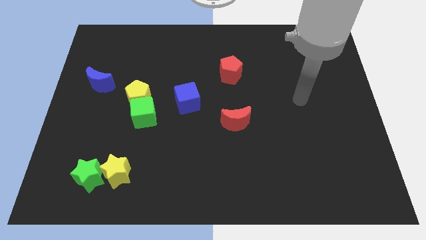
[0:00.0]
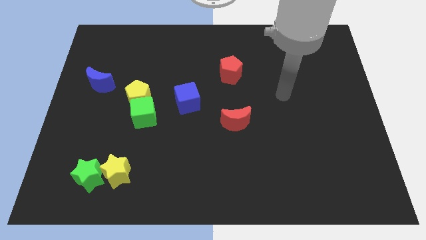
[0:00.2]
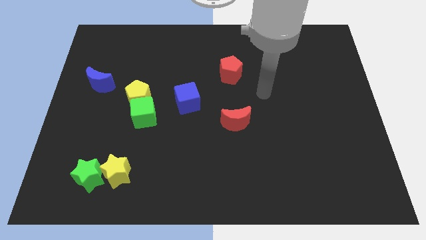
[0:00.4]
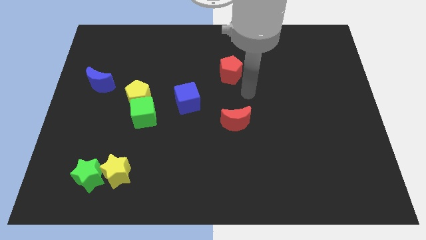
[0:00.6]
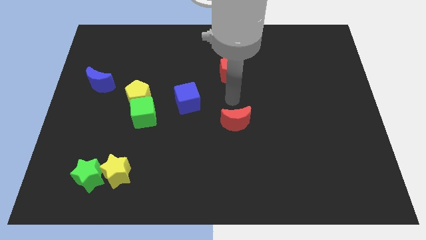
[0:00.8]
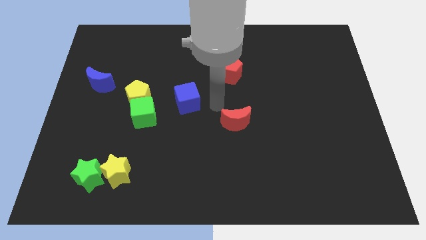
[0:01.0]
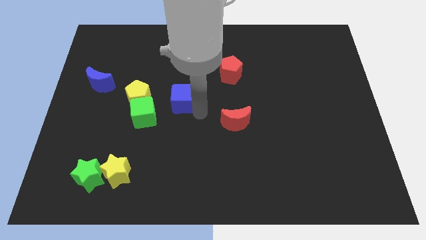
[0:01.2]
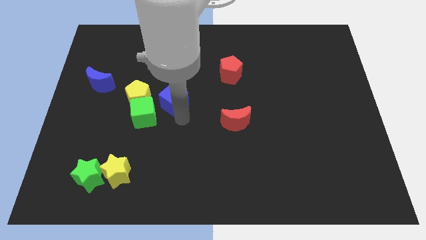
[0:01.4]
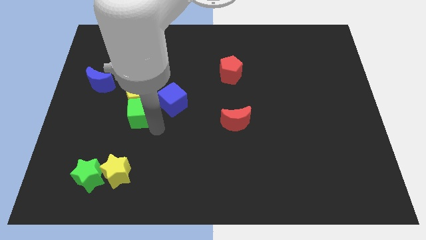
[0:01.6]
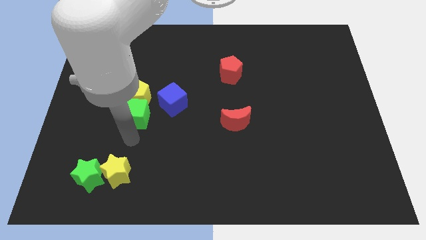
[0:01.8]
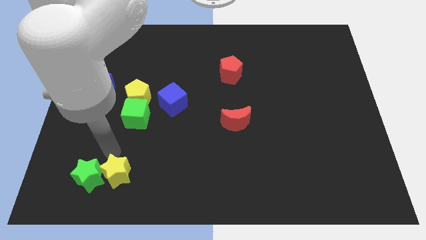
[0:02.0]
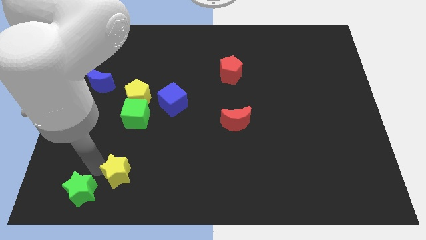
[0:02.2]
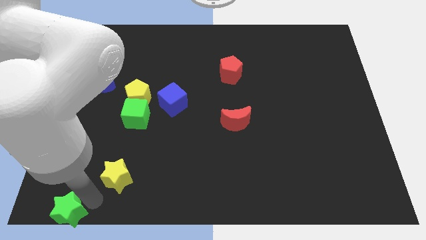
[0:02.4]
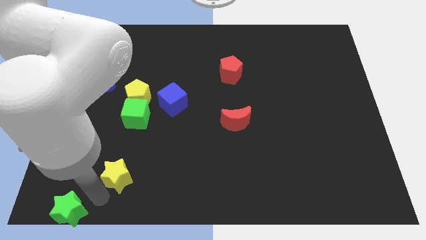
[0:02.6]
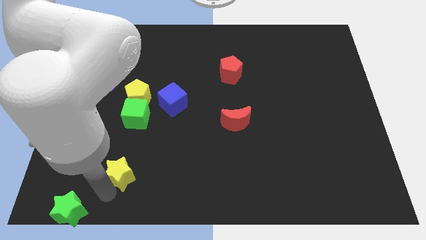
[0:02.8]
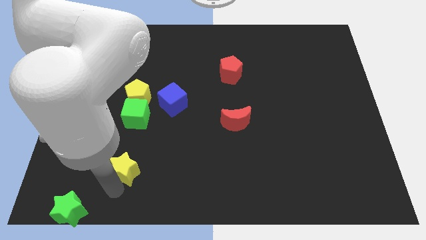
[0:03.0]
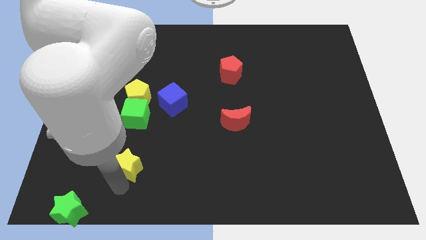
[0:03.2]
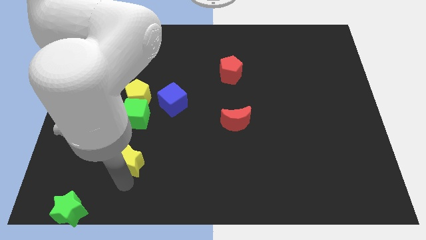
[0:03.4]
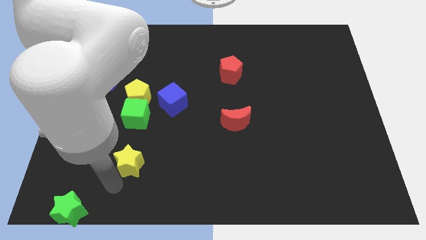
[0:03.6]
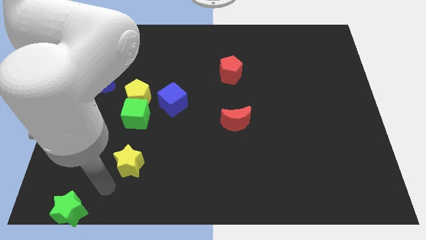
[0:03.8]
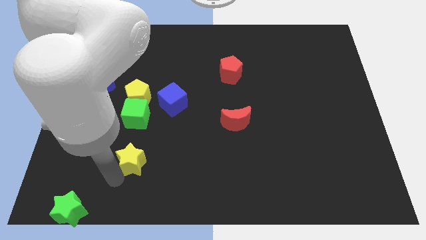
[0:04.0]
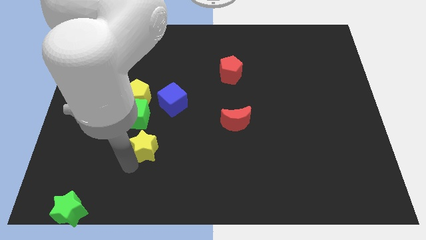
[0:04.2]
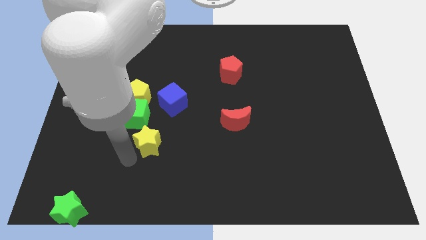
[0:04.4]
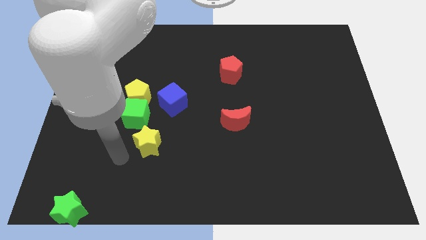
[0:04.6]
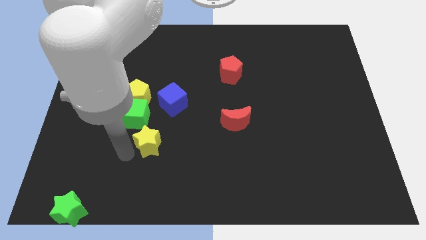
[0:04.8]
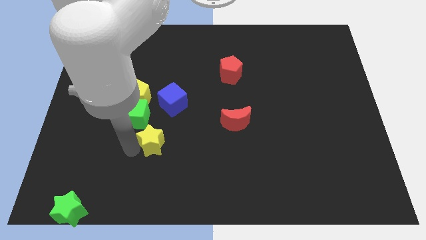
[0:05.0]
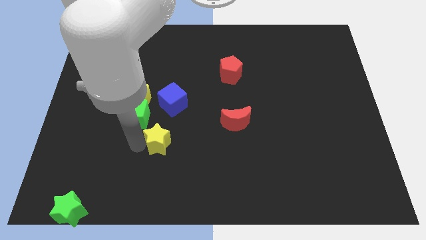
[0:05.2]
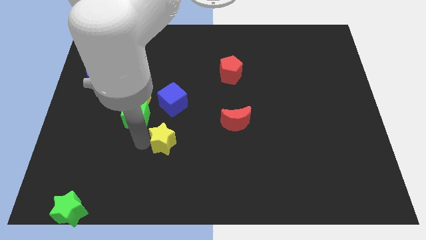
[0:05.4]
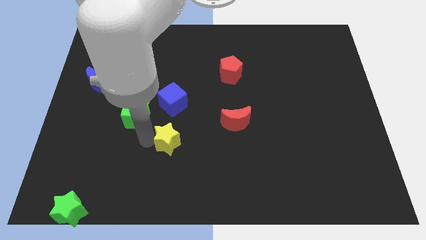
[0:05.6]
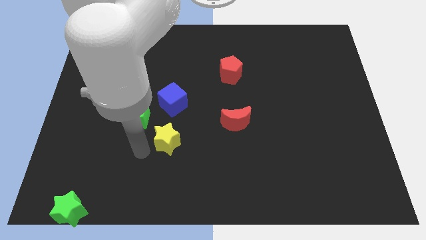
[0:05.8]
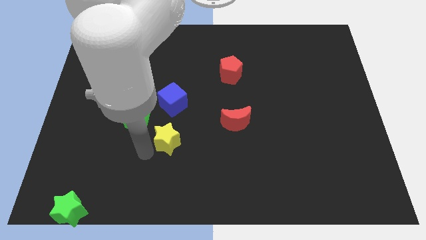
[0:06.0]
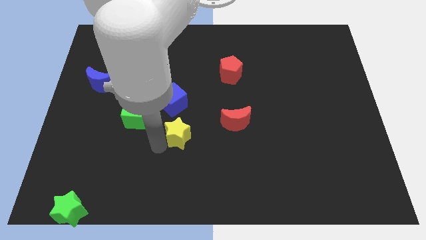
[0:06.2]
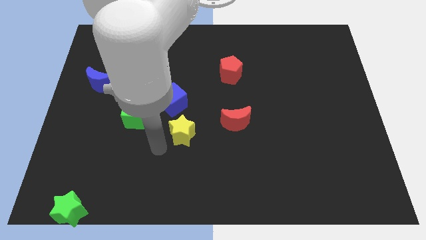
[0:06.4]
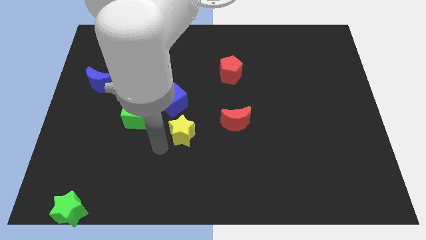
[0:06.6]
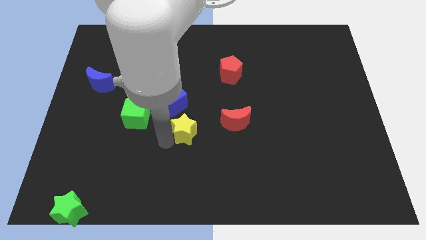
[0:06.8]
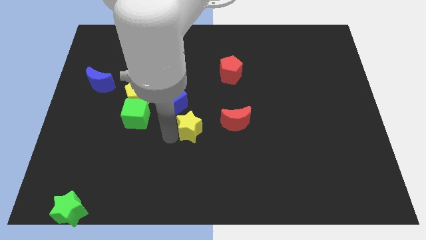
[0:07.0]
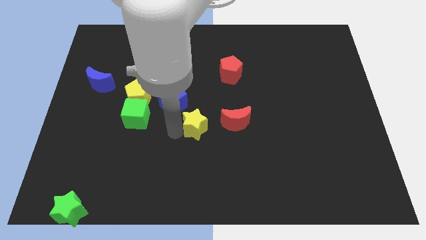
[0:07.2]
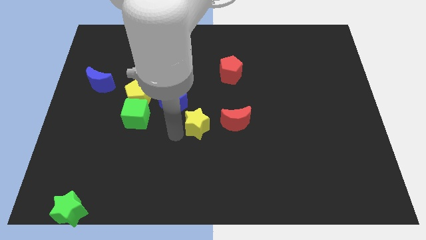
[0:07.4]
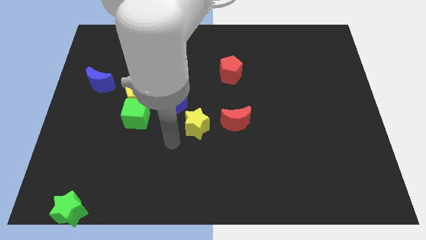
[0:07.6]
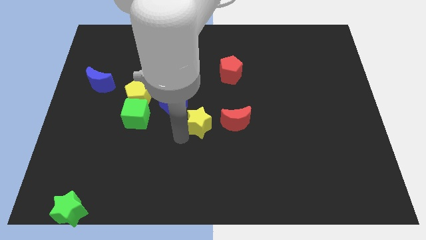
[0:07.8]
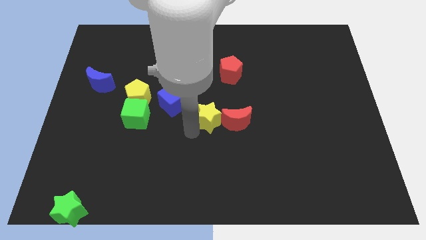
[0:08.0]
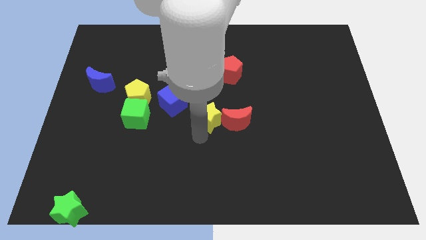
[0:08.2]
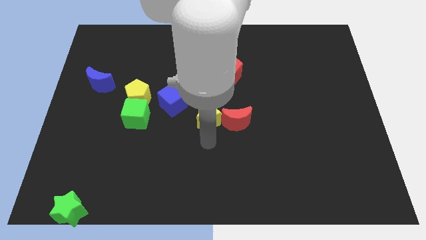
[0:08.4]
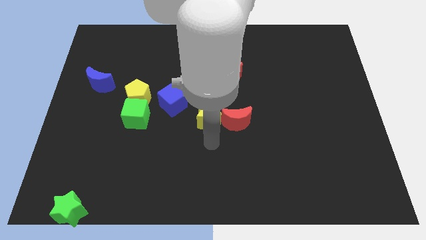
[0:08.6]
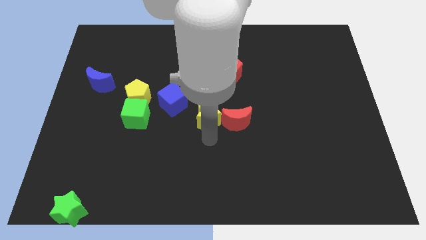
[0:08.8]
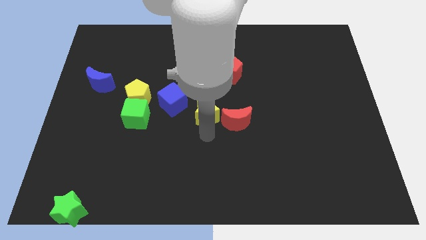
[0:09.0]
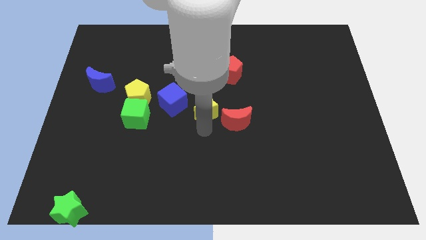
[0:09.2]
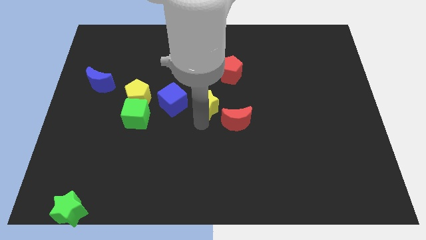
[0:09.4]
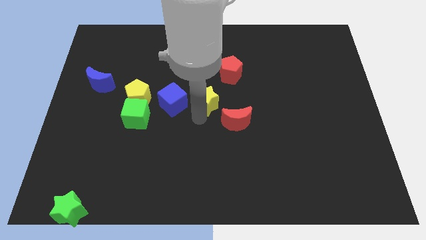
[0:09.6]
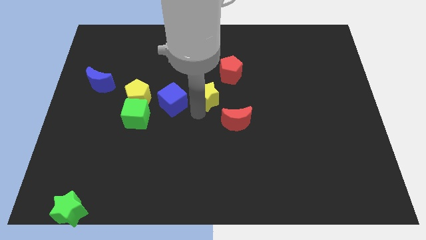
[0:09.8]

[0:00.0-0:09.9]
slide the yellow star diagonally up and to the right of the blue cube

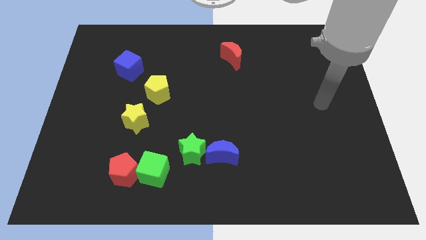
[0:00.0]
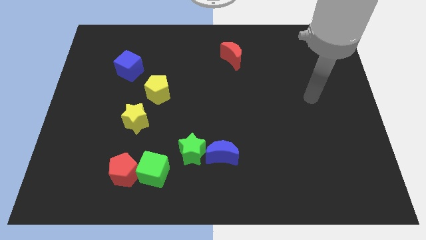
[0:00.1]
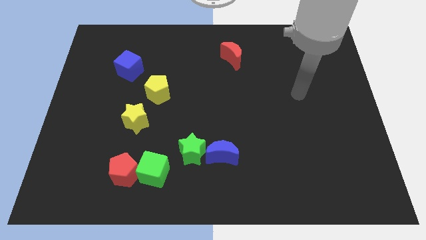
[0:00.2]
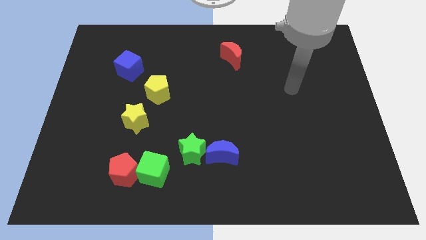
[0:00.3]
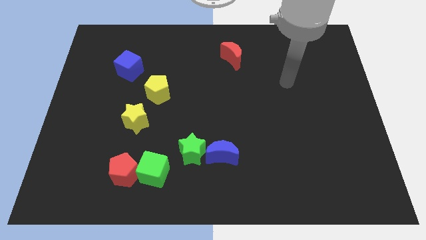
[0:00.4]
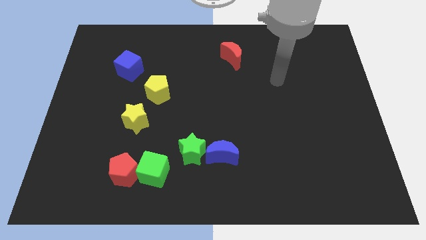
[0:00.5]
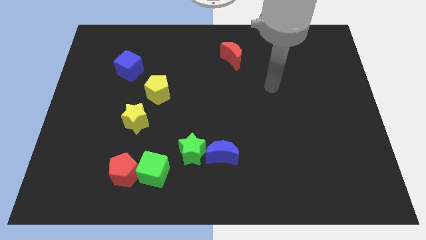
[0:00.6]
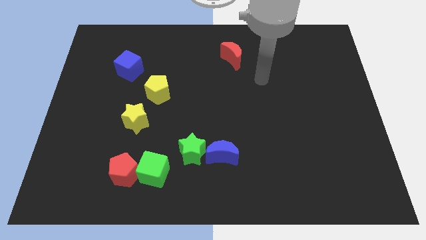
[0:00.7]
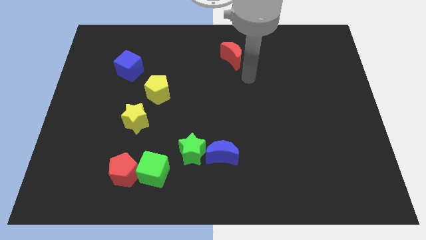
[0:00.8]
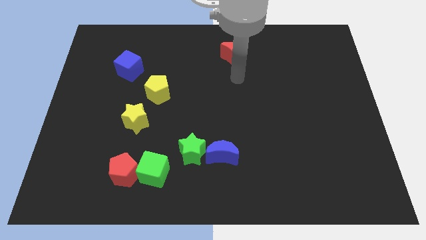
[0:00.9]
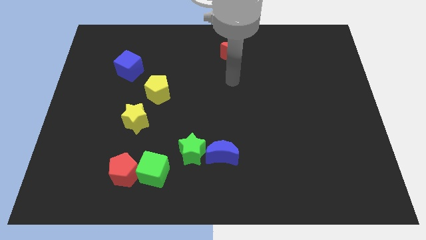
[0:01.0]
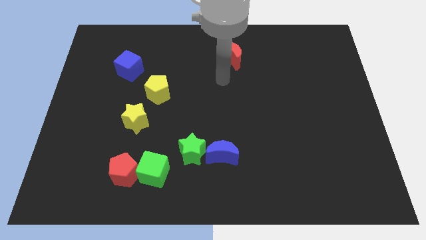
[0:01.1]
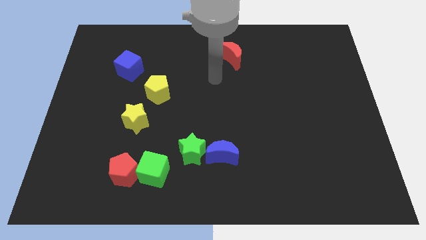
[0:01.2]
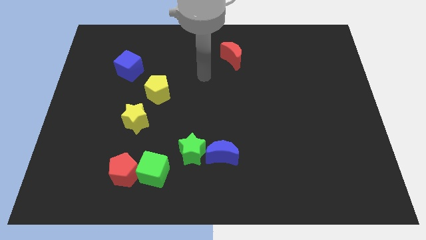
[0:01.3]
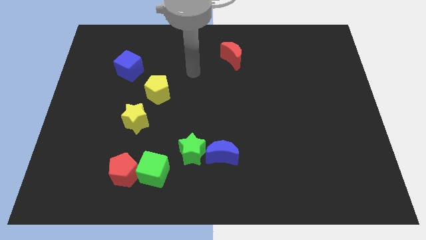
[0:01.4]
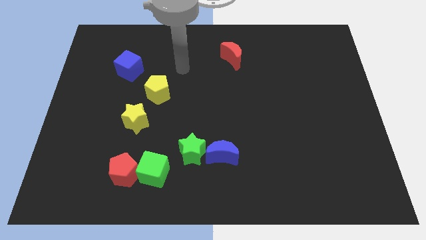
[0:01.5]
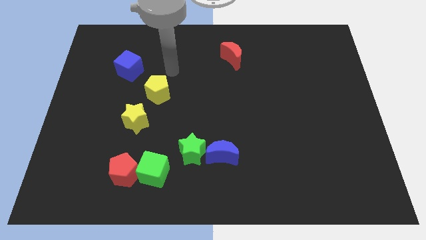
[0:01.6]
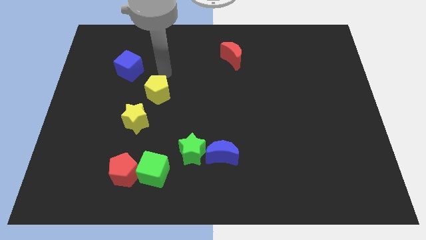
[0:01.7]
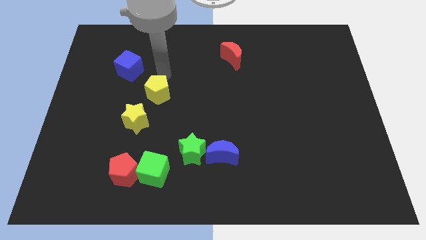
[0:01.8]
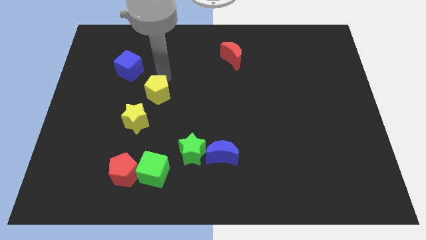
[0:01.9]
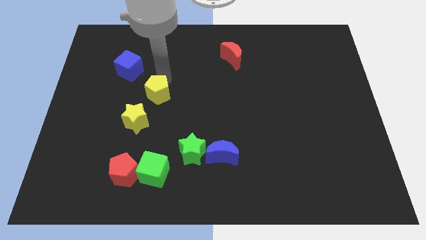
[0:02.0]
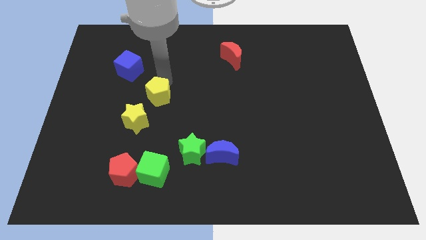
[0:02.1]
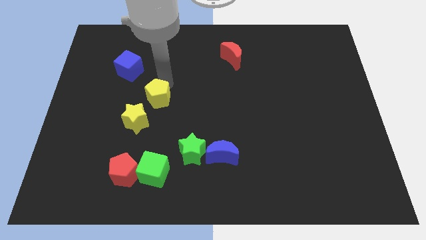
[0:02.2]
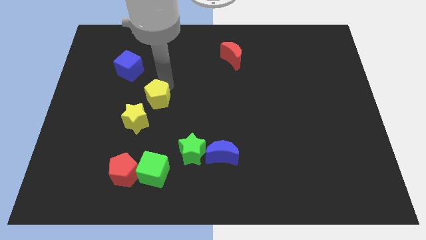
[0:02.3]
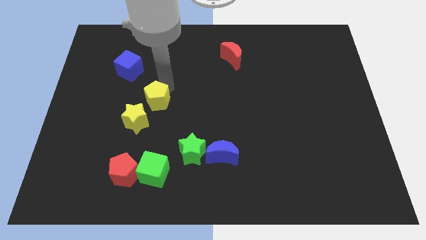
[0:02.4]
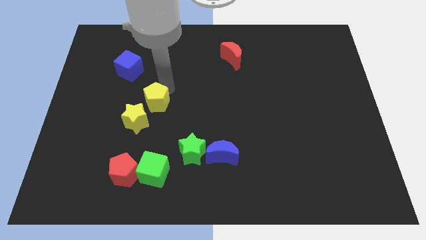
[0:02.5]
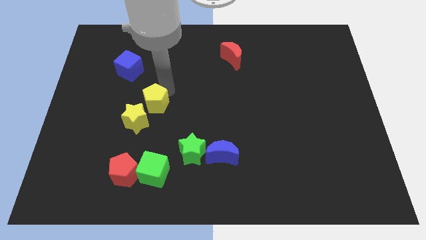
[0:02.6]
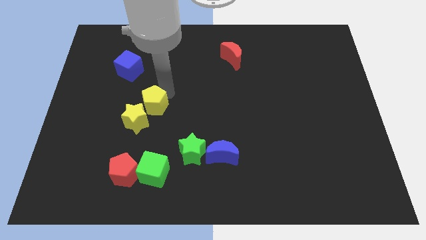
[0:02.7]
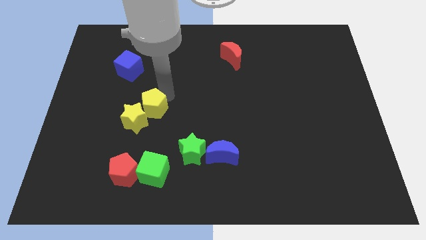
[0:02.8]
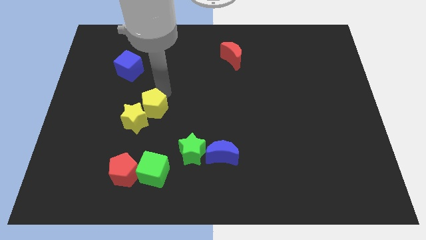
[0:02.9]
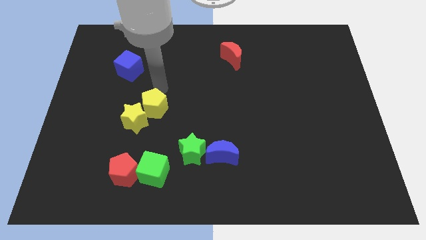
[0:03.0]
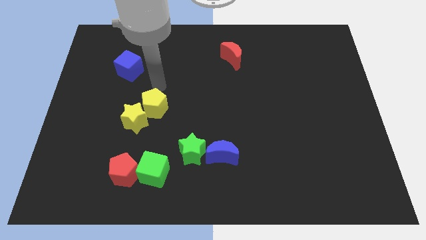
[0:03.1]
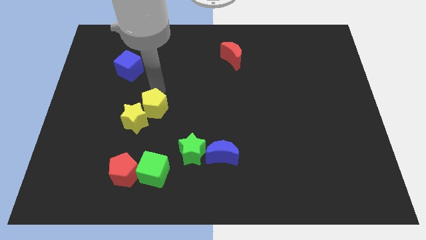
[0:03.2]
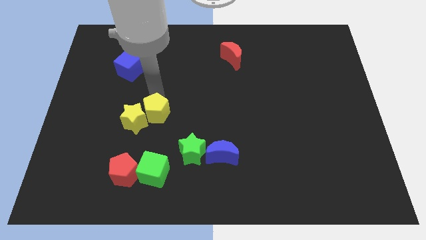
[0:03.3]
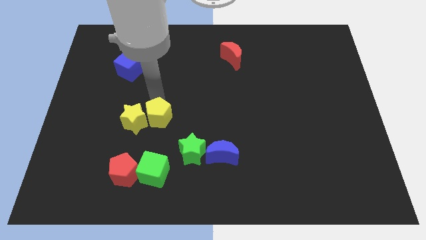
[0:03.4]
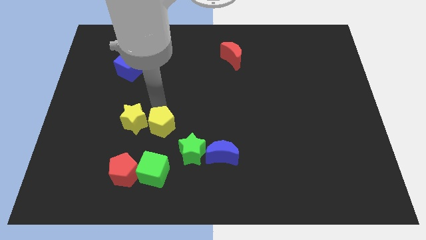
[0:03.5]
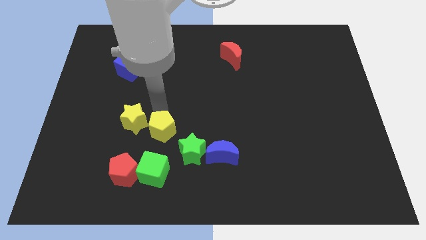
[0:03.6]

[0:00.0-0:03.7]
slide the yellow pentagon to the top right side of the red pentagon
